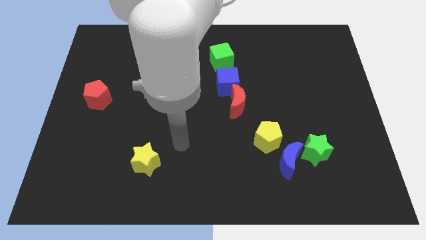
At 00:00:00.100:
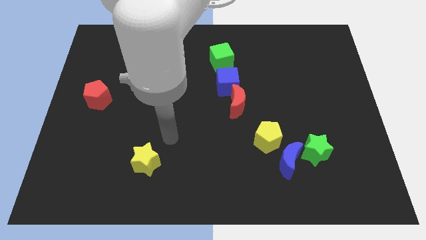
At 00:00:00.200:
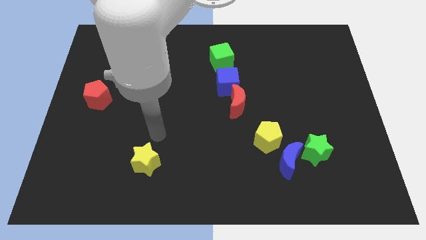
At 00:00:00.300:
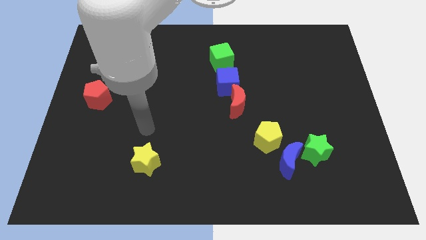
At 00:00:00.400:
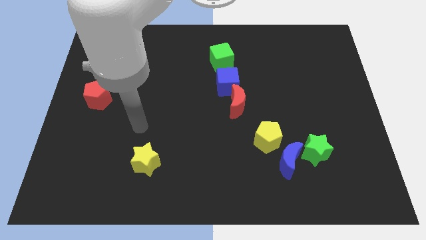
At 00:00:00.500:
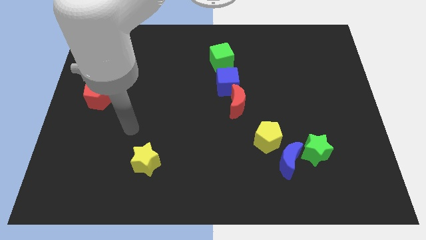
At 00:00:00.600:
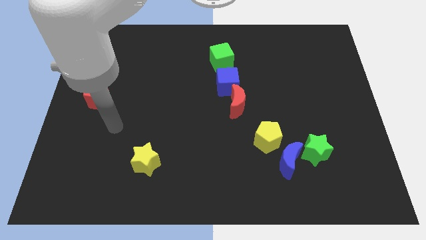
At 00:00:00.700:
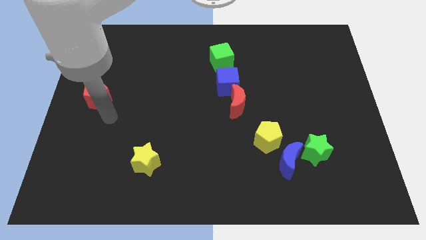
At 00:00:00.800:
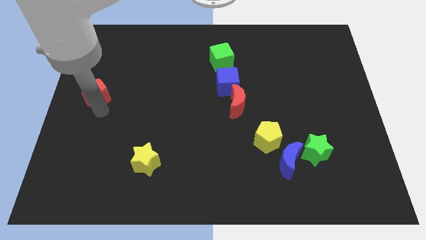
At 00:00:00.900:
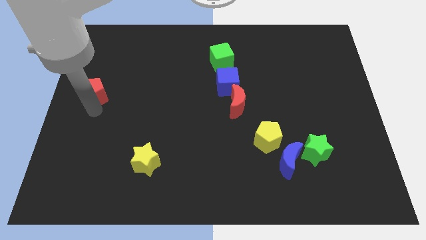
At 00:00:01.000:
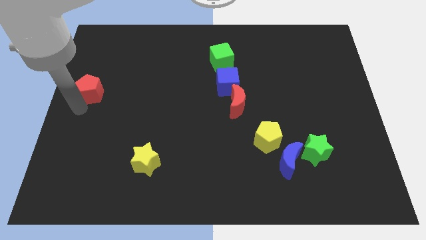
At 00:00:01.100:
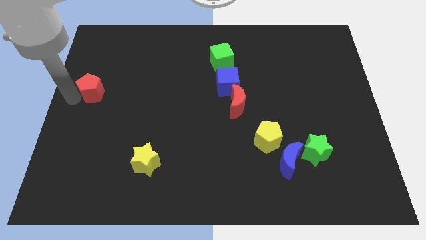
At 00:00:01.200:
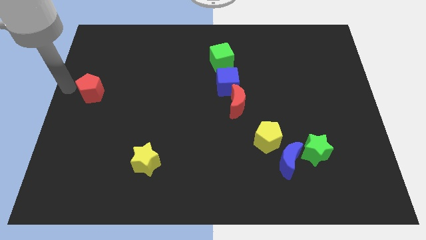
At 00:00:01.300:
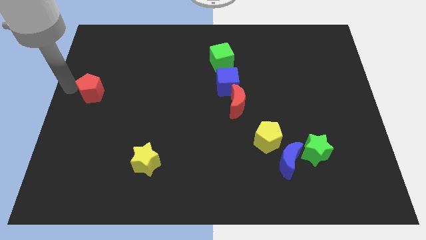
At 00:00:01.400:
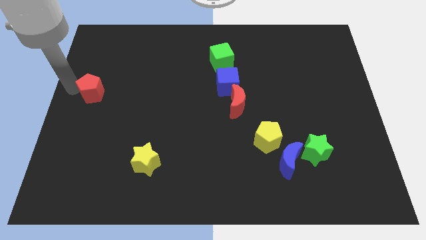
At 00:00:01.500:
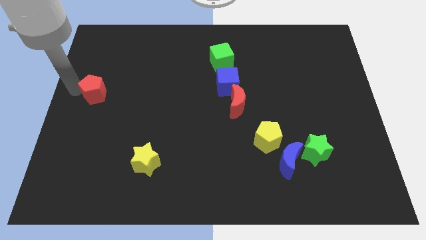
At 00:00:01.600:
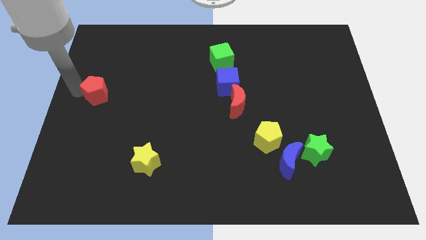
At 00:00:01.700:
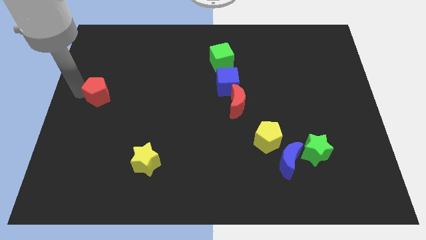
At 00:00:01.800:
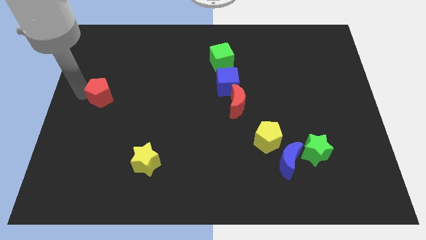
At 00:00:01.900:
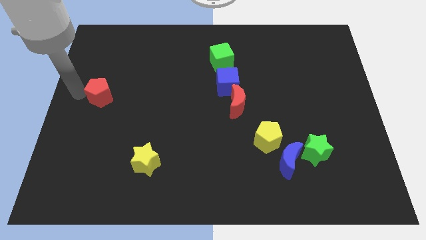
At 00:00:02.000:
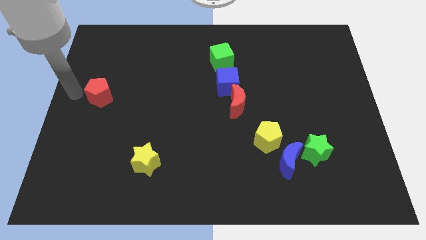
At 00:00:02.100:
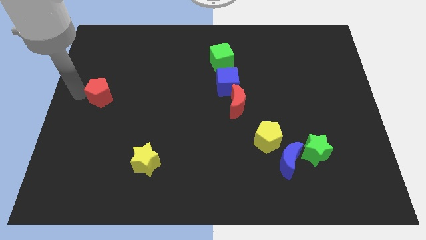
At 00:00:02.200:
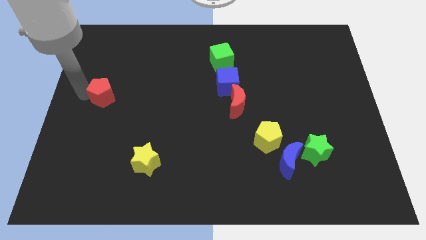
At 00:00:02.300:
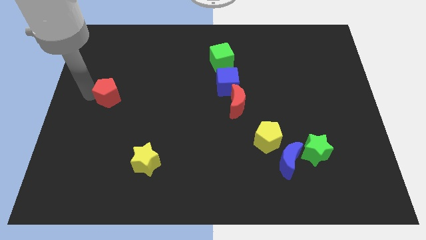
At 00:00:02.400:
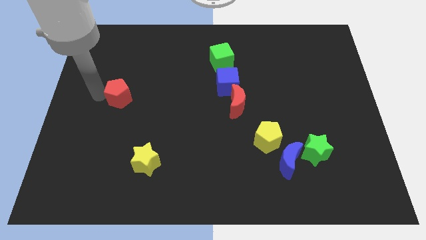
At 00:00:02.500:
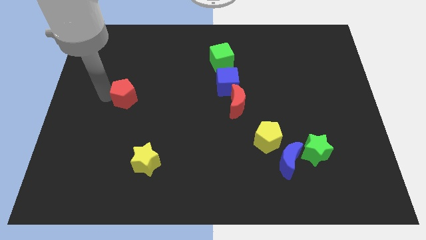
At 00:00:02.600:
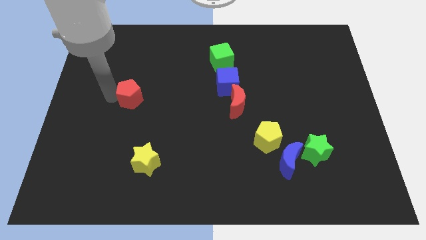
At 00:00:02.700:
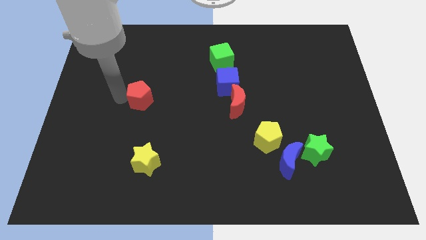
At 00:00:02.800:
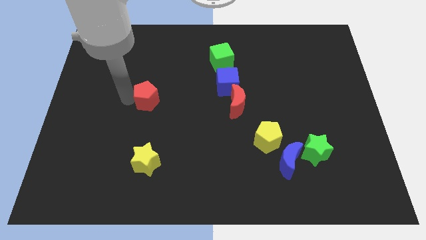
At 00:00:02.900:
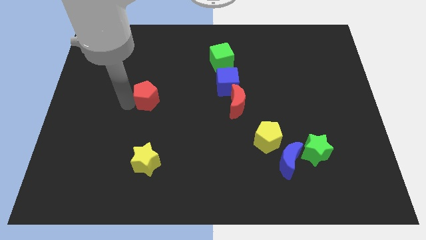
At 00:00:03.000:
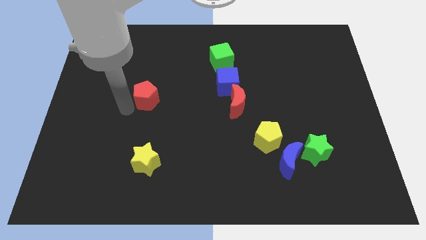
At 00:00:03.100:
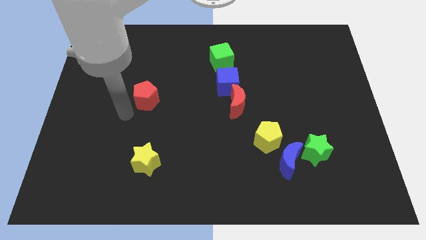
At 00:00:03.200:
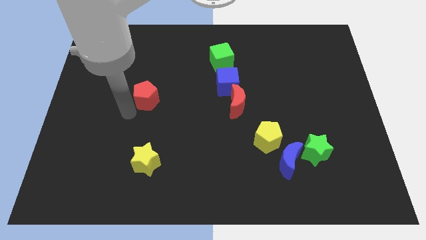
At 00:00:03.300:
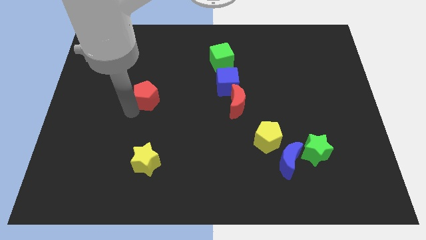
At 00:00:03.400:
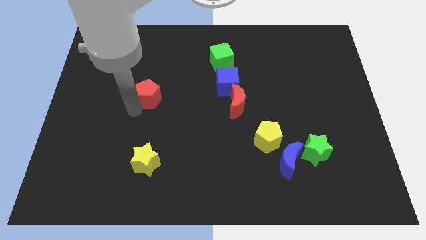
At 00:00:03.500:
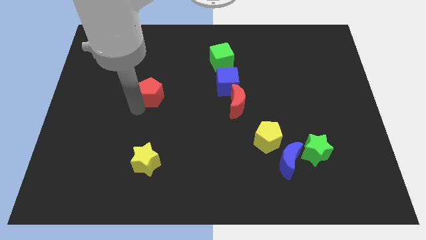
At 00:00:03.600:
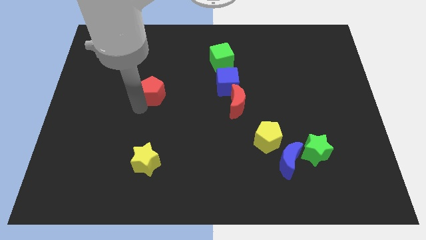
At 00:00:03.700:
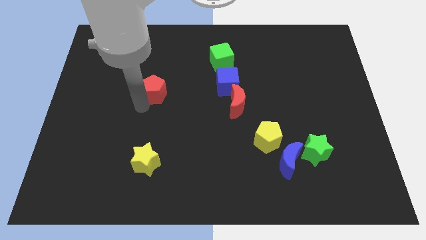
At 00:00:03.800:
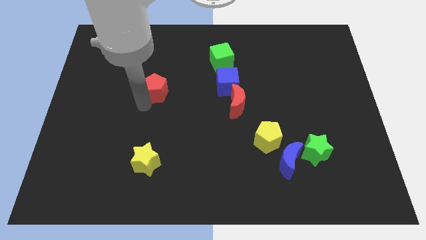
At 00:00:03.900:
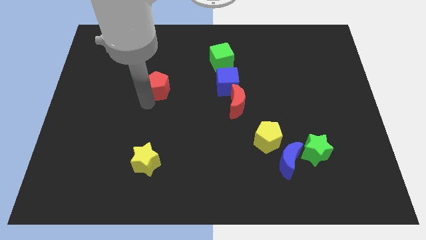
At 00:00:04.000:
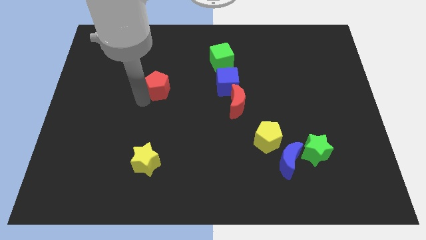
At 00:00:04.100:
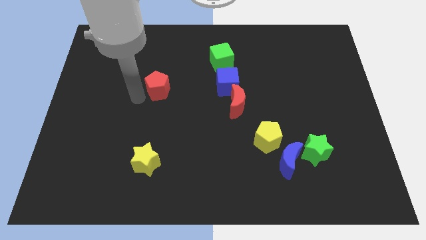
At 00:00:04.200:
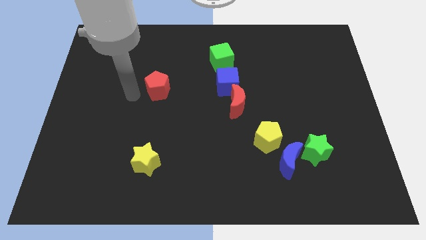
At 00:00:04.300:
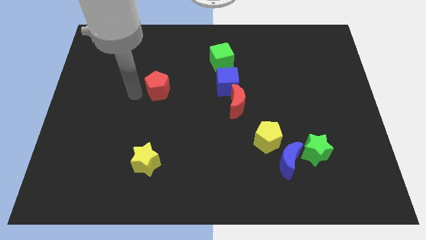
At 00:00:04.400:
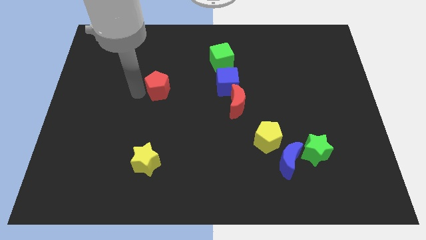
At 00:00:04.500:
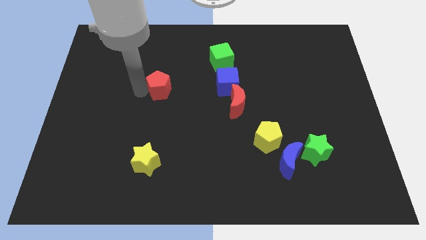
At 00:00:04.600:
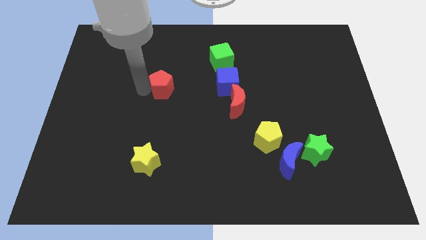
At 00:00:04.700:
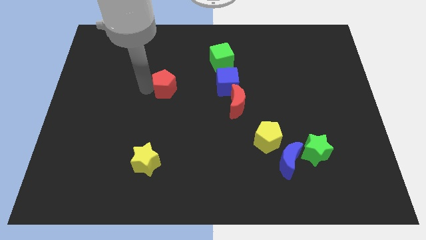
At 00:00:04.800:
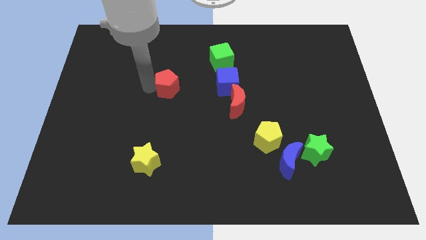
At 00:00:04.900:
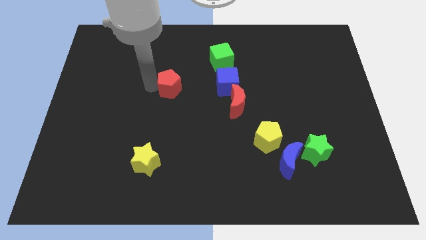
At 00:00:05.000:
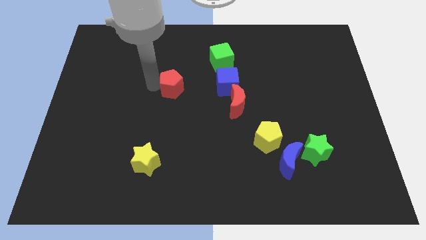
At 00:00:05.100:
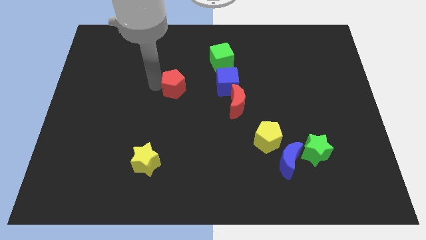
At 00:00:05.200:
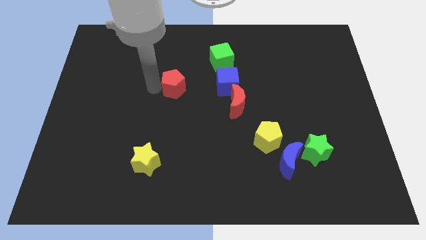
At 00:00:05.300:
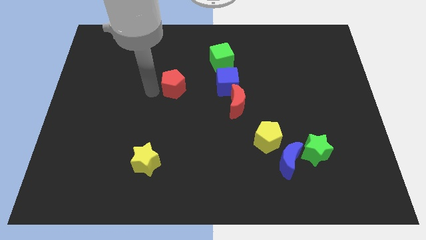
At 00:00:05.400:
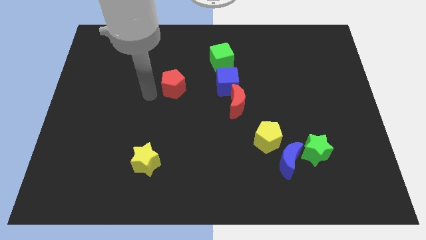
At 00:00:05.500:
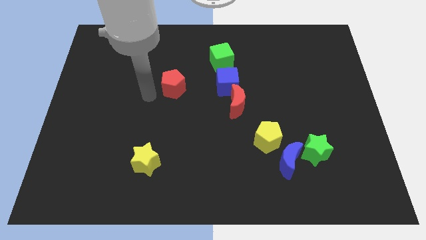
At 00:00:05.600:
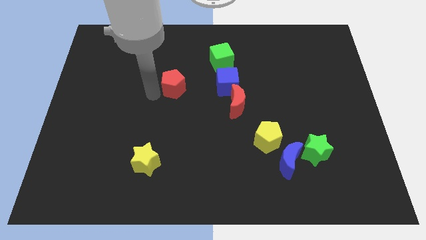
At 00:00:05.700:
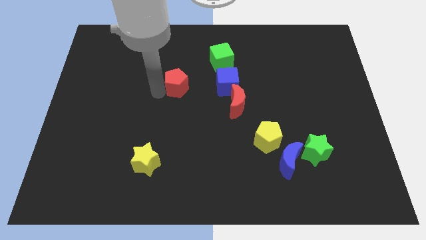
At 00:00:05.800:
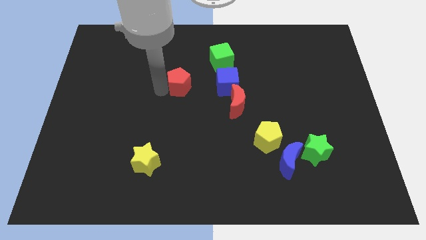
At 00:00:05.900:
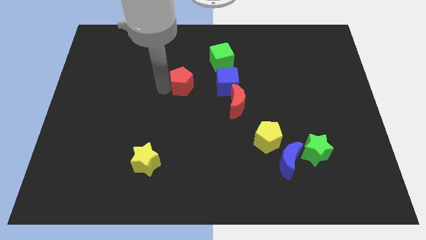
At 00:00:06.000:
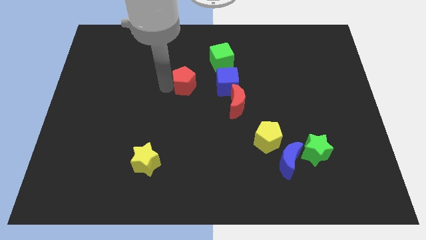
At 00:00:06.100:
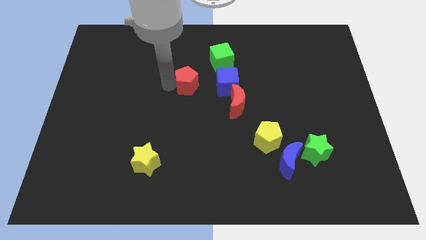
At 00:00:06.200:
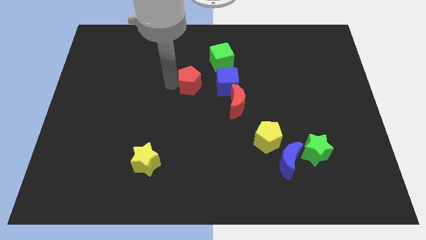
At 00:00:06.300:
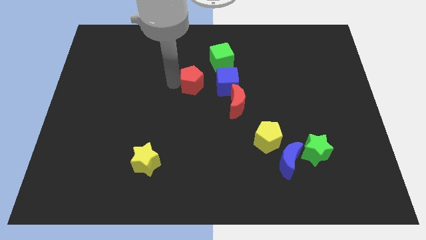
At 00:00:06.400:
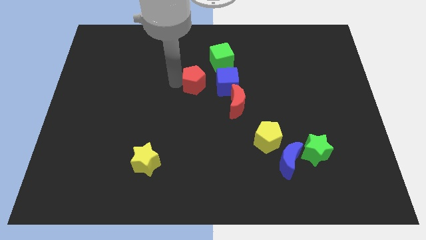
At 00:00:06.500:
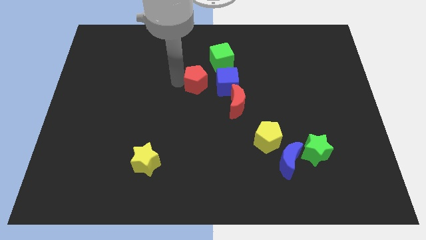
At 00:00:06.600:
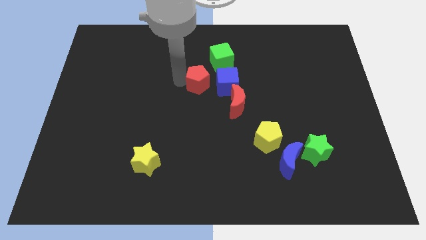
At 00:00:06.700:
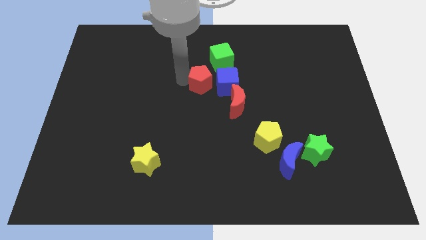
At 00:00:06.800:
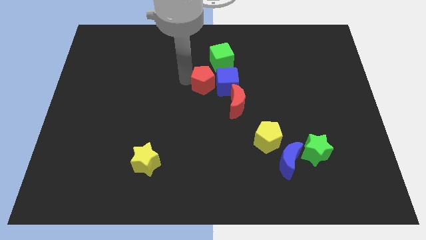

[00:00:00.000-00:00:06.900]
move the red pentagon next to the blue cube
